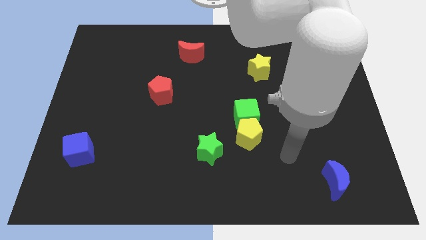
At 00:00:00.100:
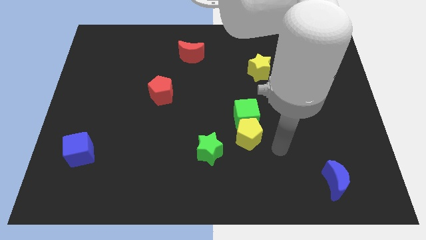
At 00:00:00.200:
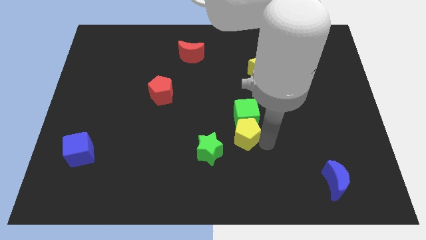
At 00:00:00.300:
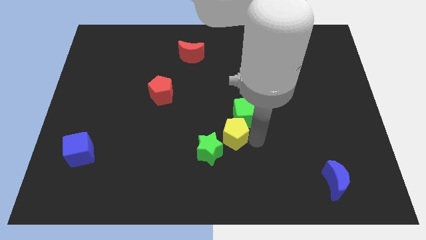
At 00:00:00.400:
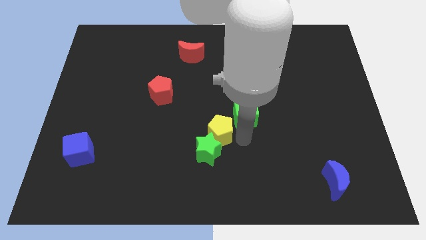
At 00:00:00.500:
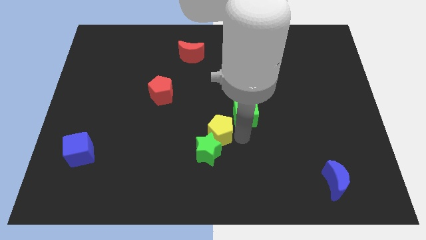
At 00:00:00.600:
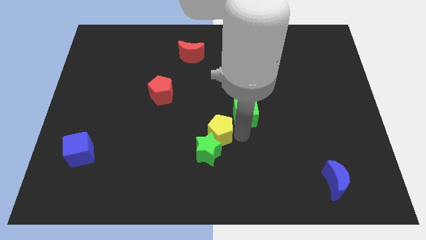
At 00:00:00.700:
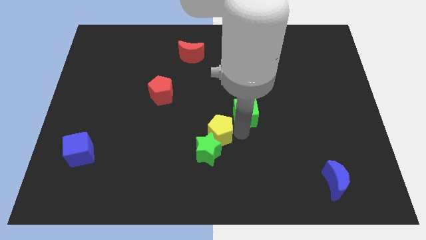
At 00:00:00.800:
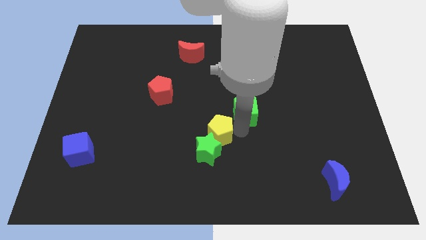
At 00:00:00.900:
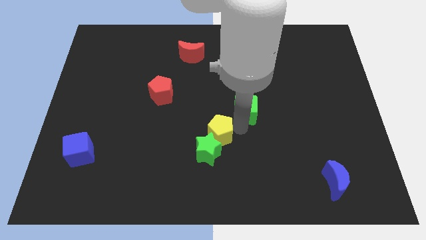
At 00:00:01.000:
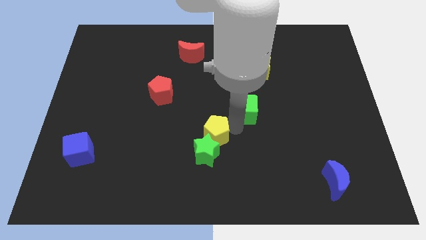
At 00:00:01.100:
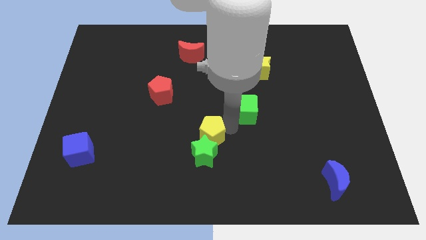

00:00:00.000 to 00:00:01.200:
pull the green cube apart from the yellow pentagon

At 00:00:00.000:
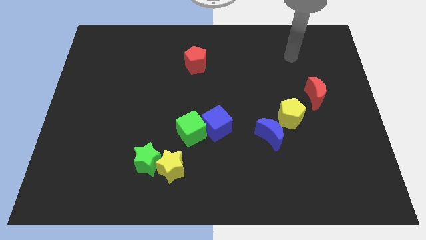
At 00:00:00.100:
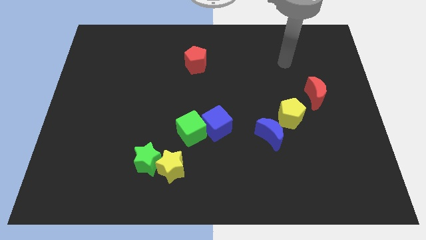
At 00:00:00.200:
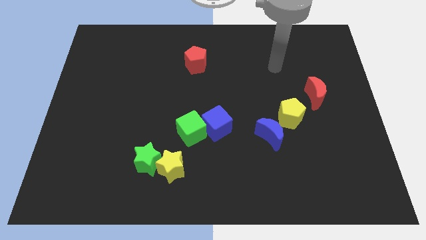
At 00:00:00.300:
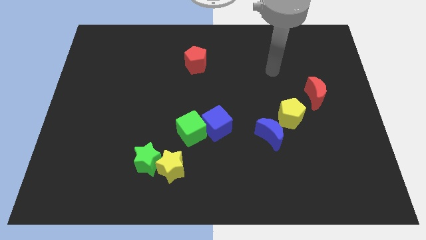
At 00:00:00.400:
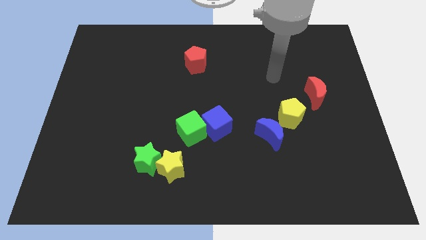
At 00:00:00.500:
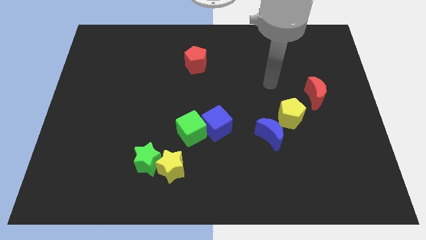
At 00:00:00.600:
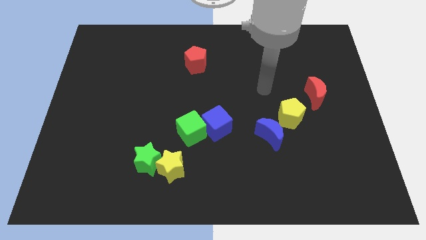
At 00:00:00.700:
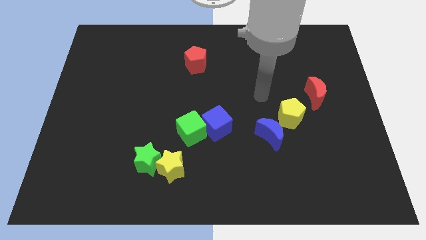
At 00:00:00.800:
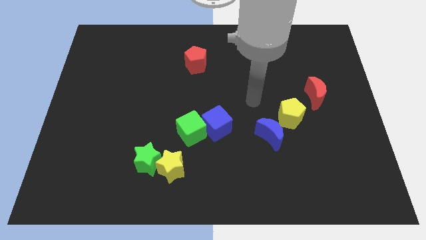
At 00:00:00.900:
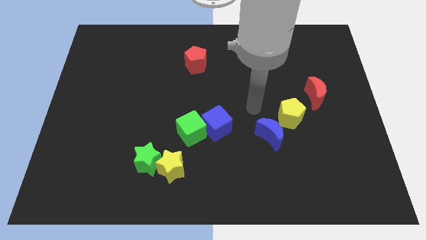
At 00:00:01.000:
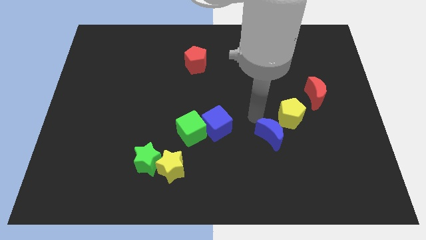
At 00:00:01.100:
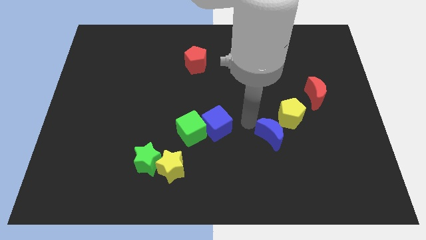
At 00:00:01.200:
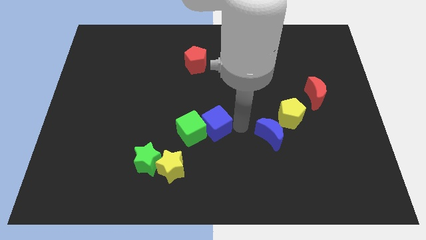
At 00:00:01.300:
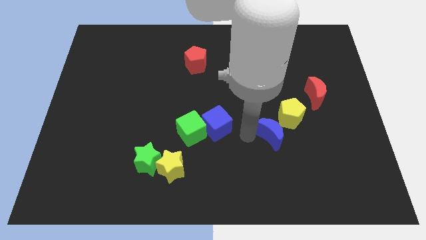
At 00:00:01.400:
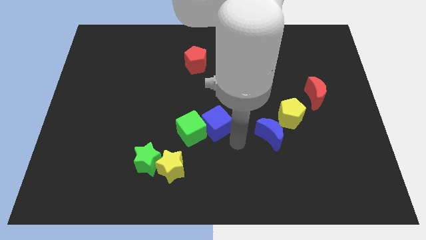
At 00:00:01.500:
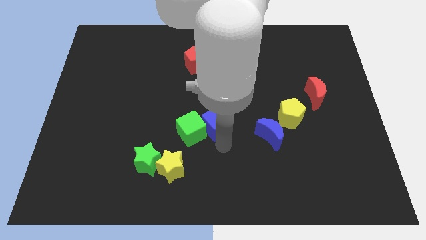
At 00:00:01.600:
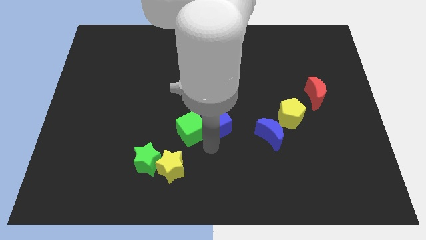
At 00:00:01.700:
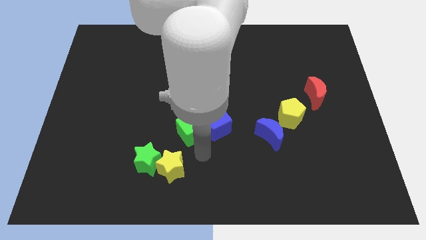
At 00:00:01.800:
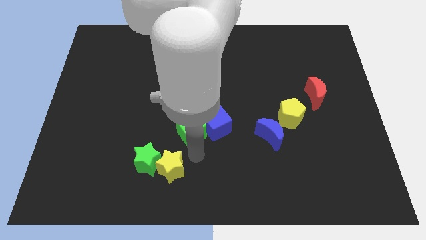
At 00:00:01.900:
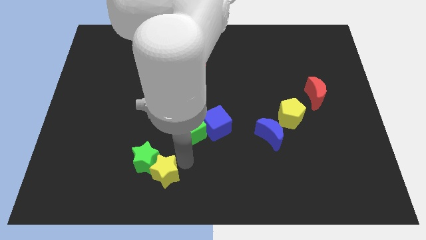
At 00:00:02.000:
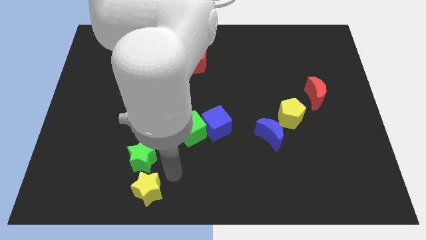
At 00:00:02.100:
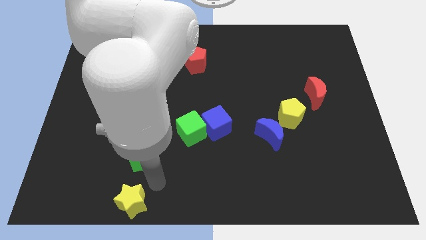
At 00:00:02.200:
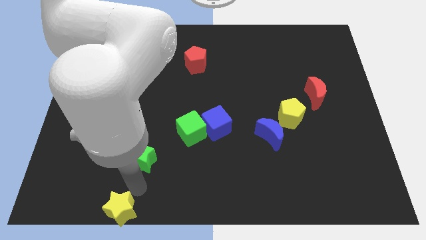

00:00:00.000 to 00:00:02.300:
move the green star away from the yellow star

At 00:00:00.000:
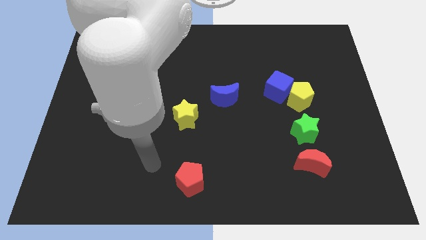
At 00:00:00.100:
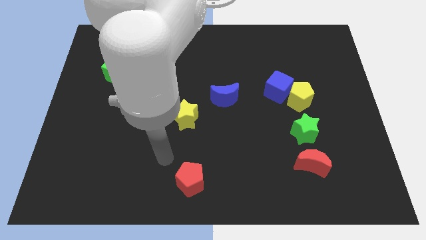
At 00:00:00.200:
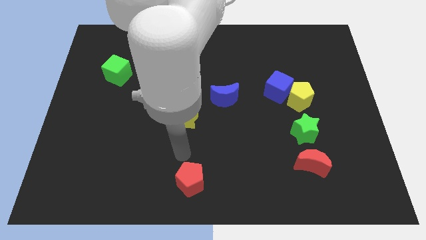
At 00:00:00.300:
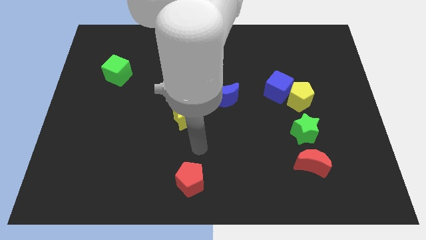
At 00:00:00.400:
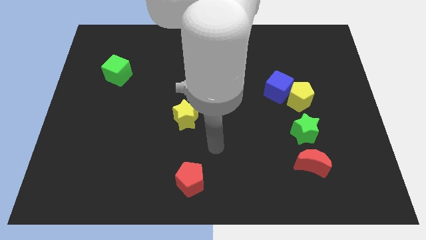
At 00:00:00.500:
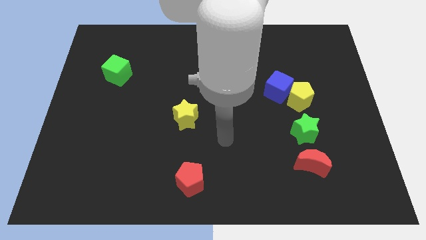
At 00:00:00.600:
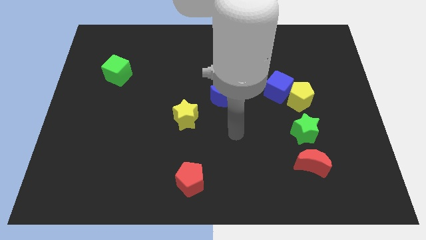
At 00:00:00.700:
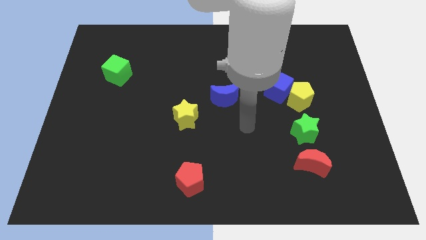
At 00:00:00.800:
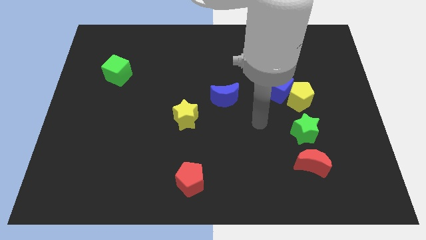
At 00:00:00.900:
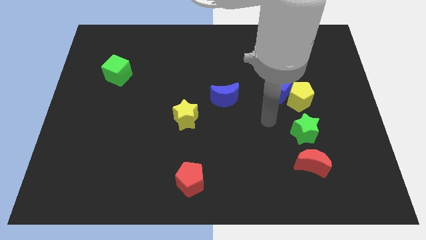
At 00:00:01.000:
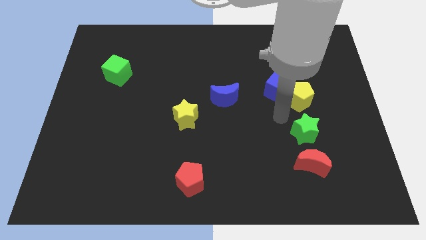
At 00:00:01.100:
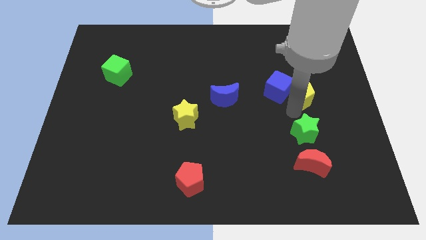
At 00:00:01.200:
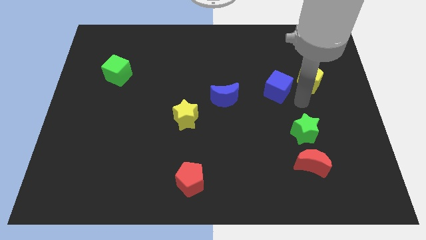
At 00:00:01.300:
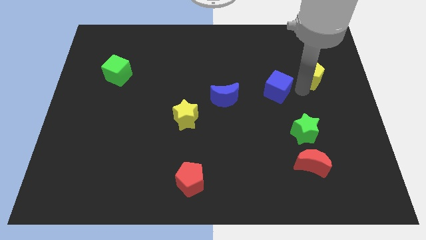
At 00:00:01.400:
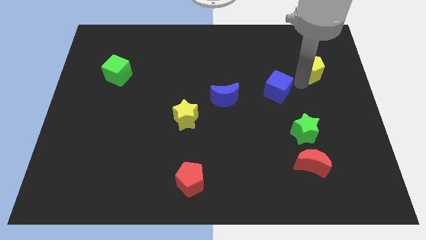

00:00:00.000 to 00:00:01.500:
pull the blue cube apart from the yellow pentagon

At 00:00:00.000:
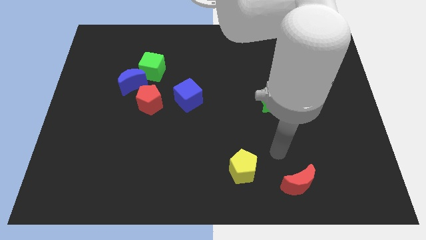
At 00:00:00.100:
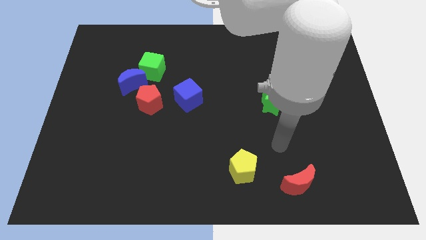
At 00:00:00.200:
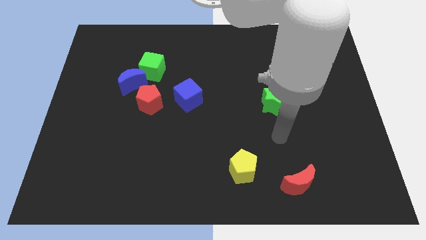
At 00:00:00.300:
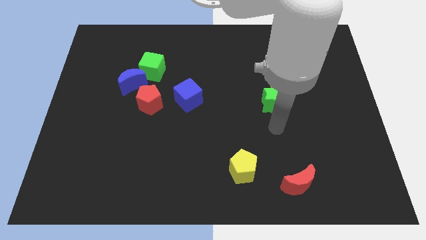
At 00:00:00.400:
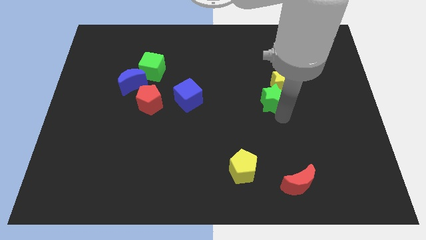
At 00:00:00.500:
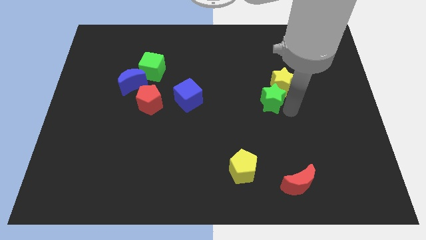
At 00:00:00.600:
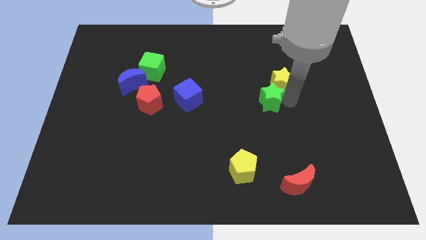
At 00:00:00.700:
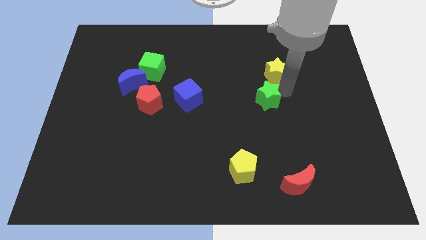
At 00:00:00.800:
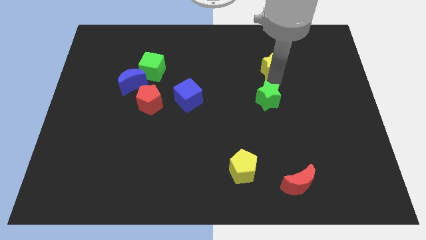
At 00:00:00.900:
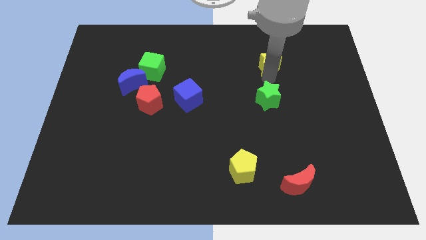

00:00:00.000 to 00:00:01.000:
separate the green star from the yellow star

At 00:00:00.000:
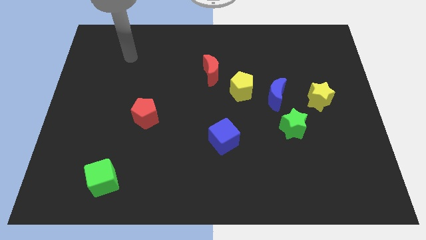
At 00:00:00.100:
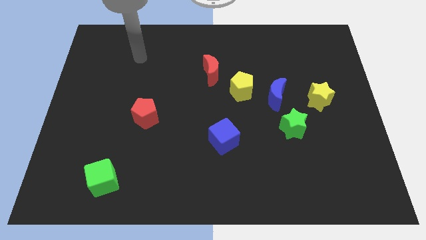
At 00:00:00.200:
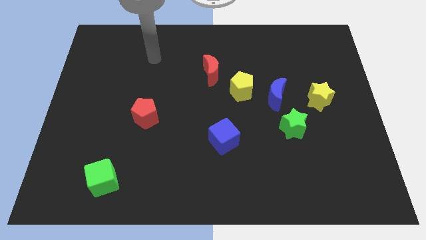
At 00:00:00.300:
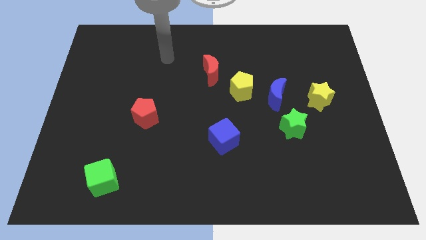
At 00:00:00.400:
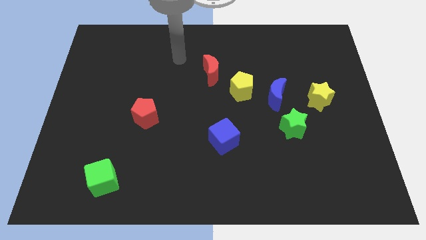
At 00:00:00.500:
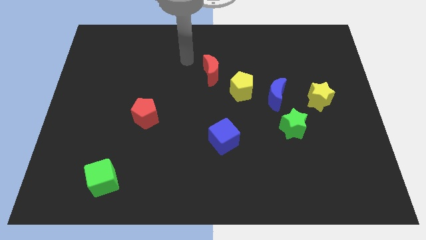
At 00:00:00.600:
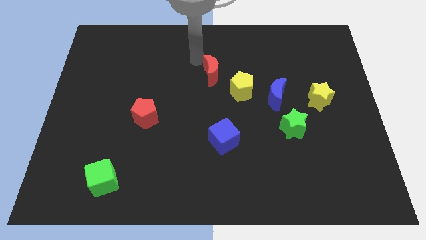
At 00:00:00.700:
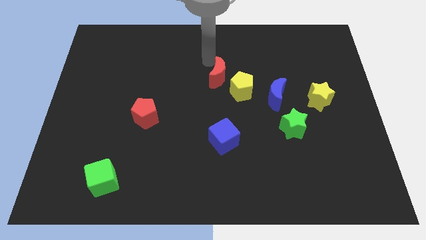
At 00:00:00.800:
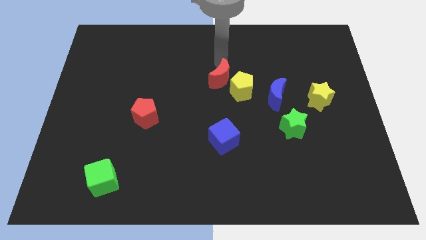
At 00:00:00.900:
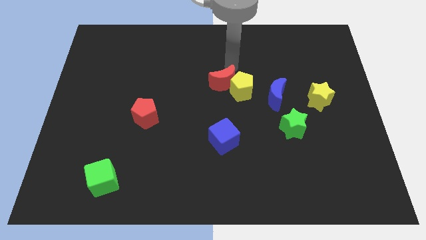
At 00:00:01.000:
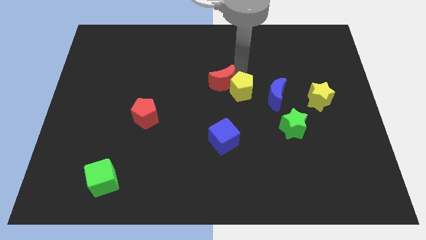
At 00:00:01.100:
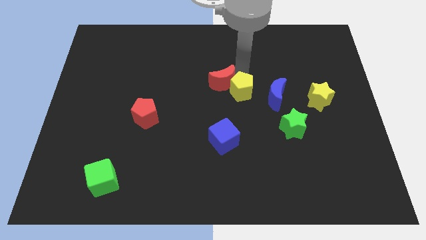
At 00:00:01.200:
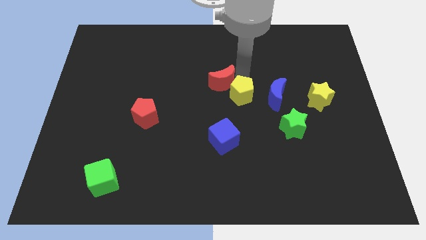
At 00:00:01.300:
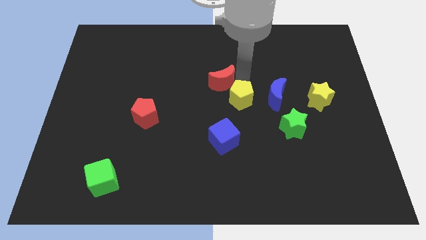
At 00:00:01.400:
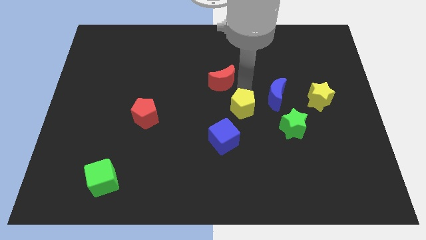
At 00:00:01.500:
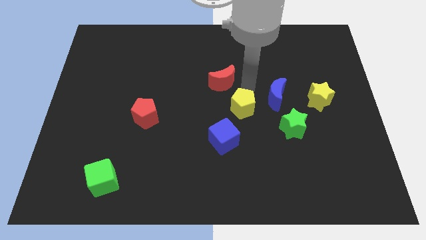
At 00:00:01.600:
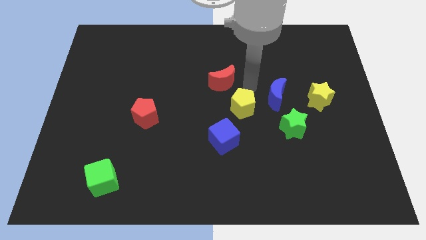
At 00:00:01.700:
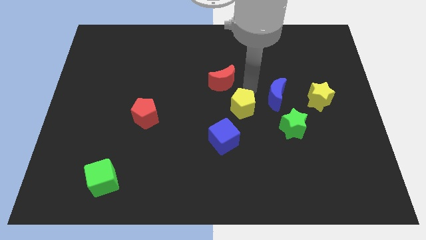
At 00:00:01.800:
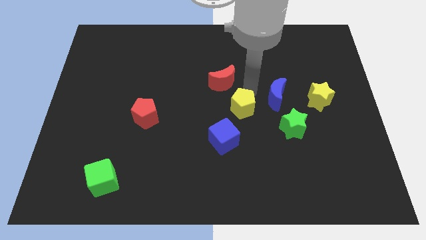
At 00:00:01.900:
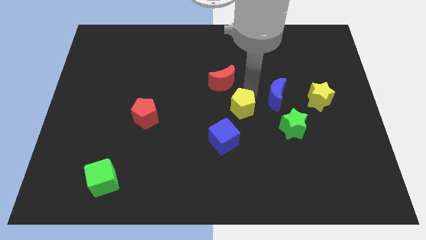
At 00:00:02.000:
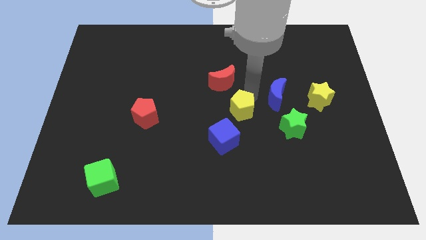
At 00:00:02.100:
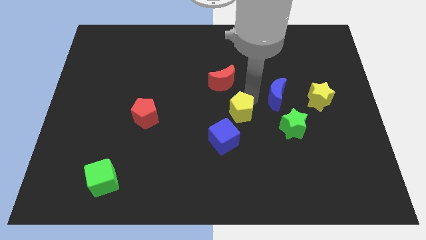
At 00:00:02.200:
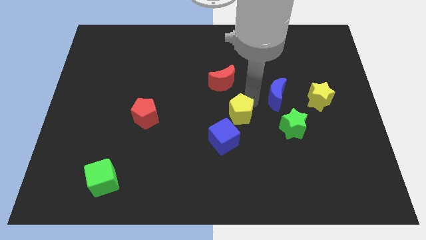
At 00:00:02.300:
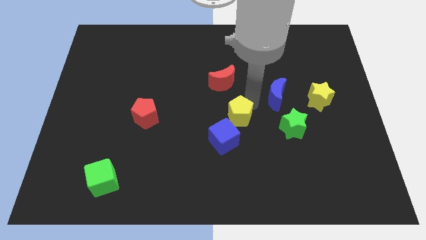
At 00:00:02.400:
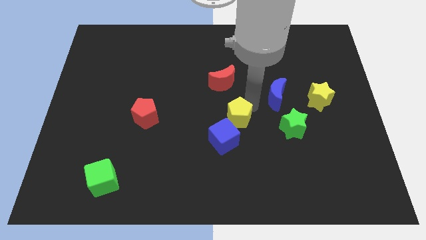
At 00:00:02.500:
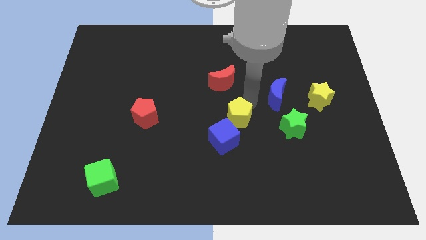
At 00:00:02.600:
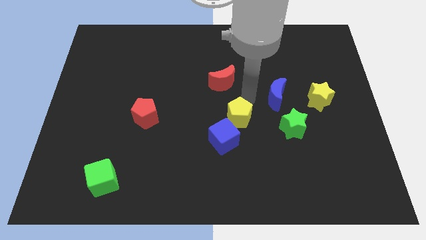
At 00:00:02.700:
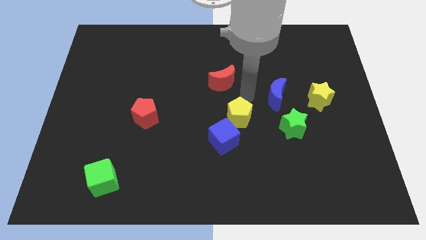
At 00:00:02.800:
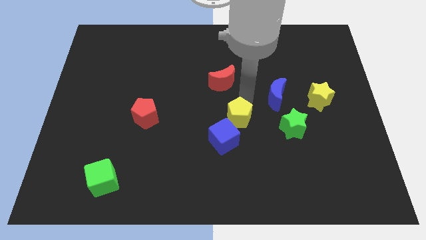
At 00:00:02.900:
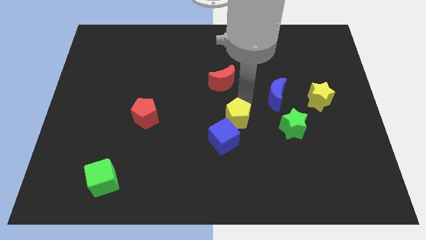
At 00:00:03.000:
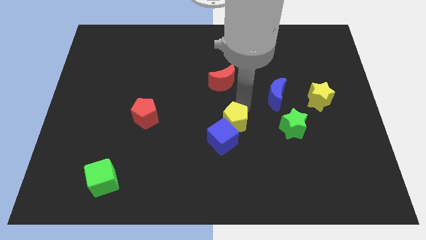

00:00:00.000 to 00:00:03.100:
move the yellow pentagon away from the blue moon and red moon
